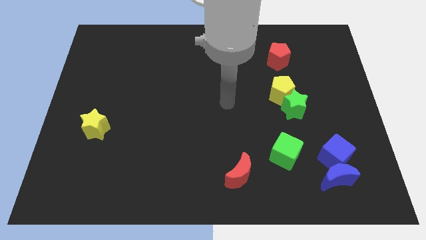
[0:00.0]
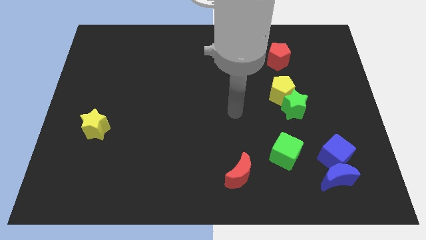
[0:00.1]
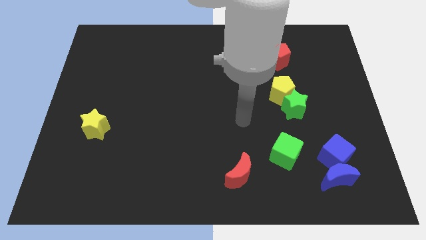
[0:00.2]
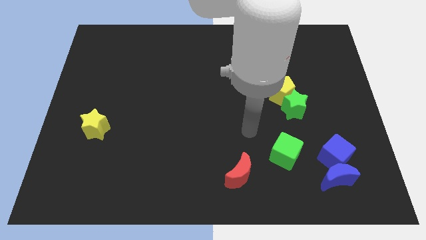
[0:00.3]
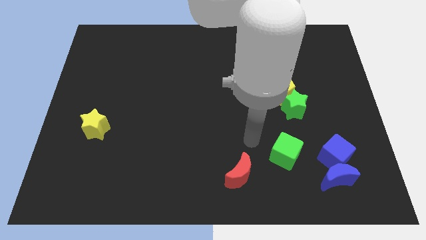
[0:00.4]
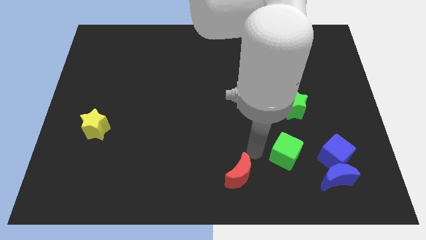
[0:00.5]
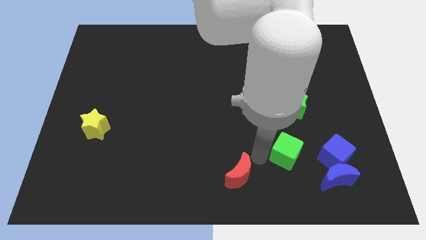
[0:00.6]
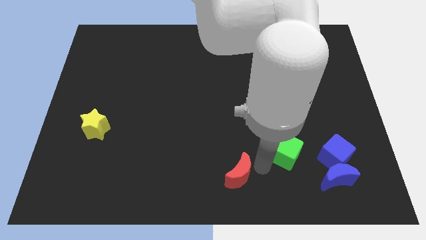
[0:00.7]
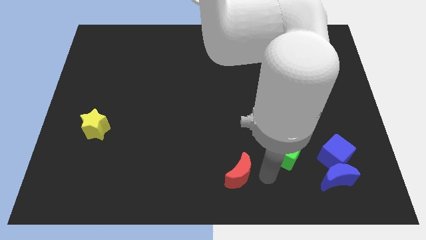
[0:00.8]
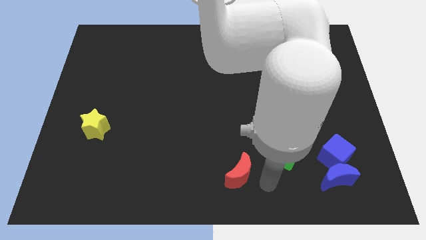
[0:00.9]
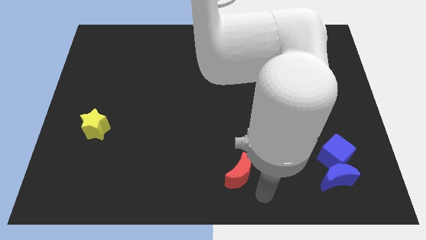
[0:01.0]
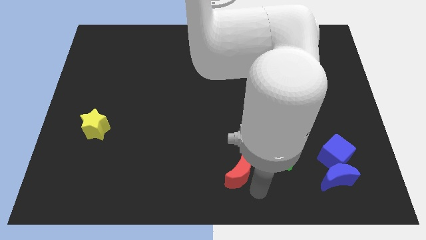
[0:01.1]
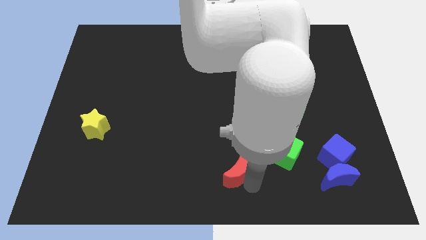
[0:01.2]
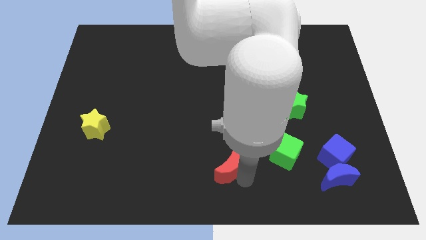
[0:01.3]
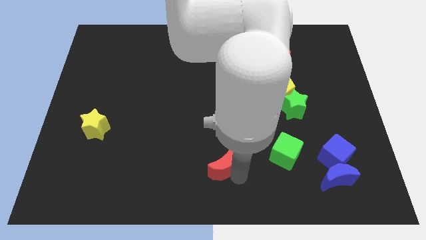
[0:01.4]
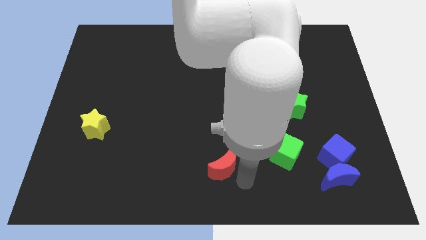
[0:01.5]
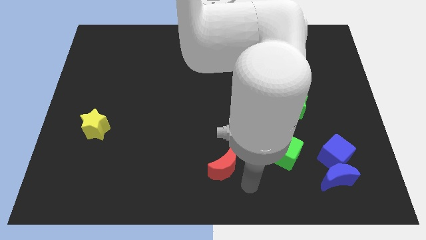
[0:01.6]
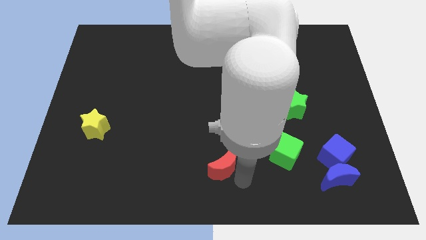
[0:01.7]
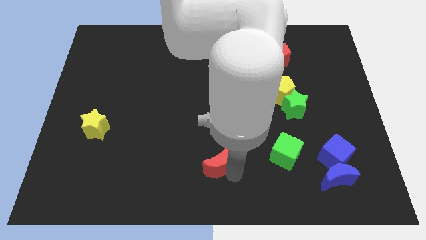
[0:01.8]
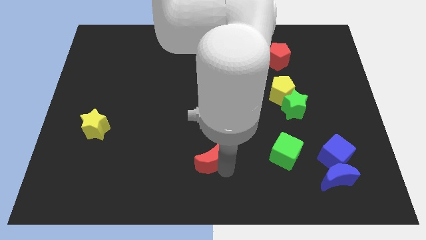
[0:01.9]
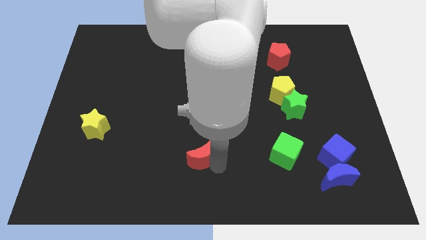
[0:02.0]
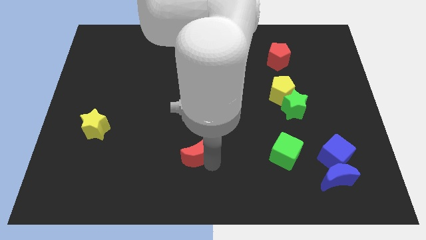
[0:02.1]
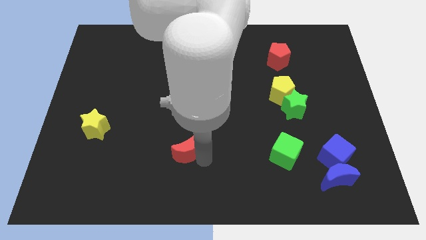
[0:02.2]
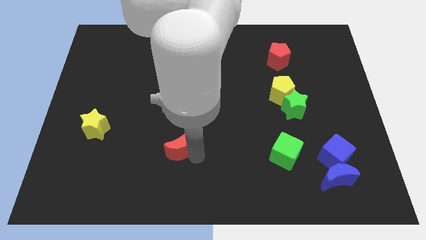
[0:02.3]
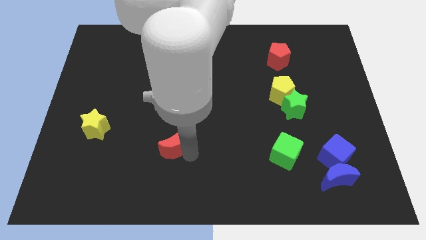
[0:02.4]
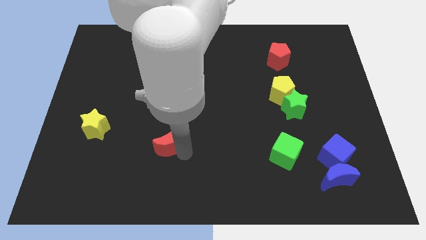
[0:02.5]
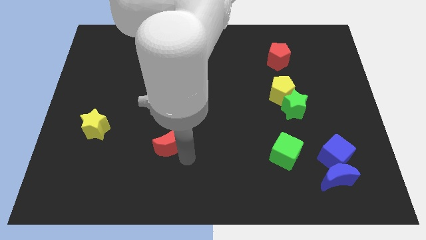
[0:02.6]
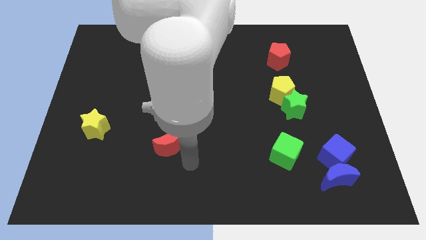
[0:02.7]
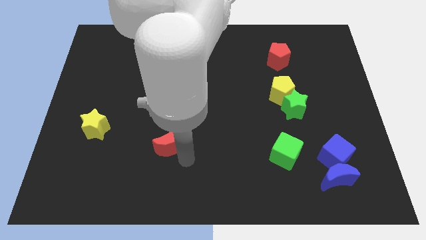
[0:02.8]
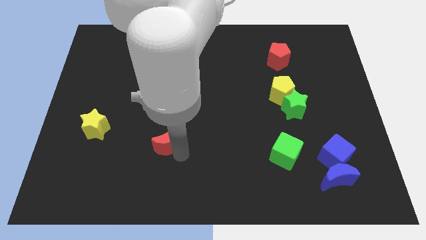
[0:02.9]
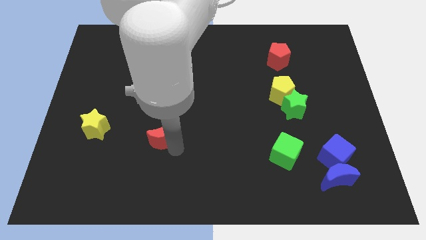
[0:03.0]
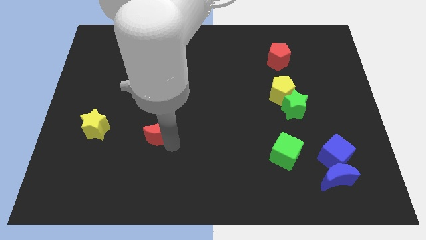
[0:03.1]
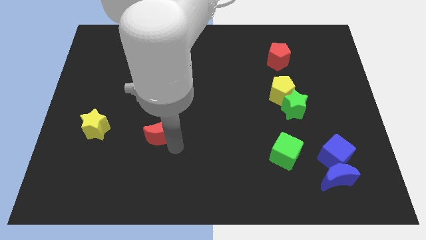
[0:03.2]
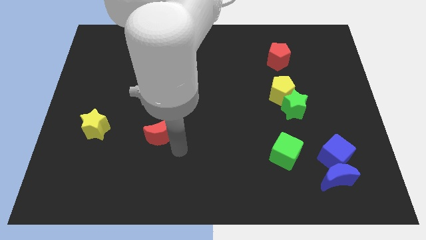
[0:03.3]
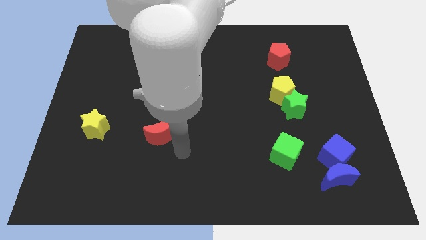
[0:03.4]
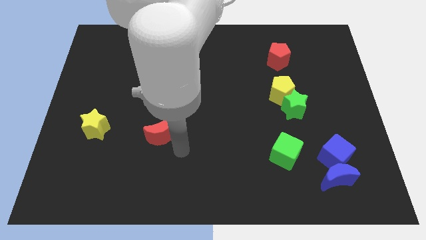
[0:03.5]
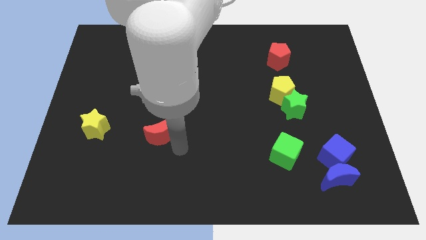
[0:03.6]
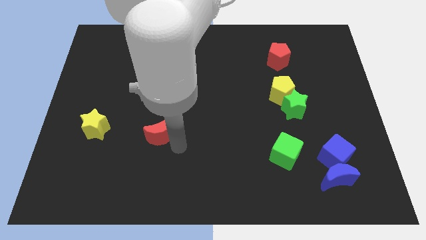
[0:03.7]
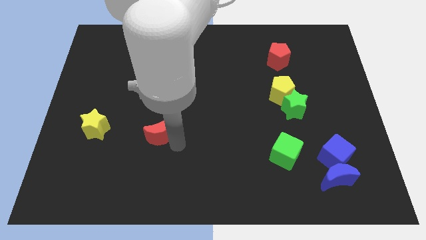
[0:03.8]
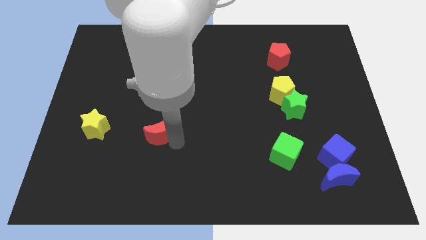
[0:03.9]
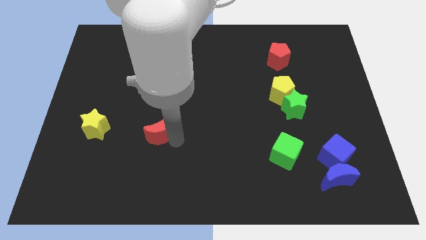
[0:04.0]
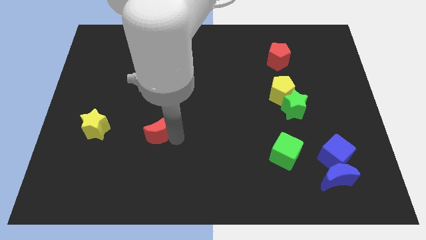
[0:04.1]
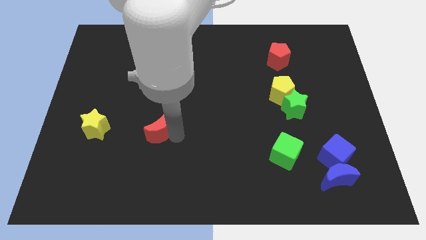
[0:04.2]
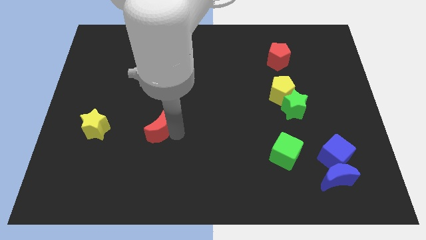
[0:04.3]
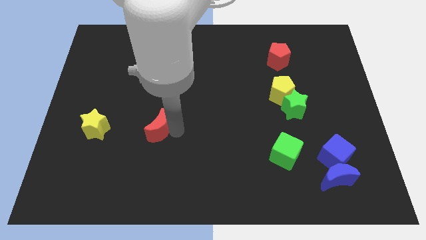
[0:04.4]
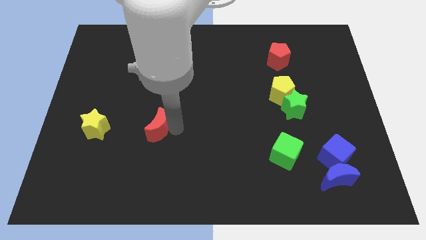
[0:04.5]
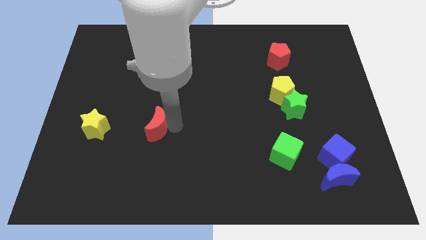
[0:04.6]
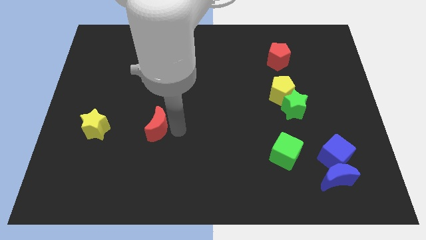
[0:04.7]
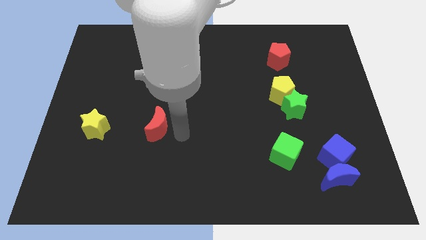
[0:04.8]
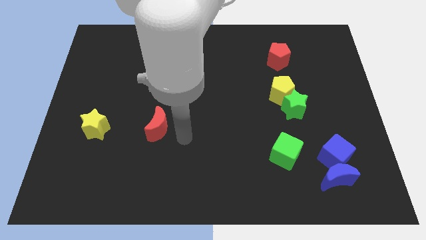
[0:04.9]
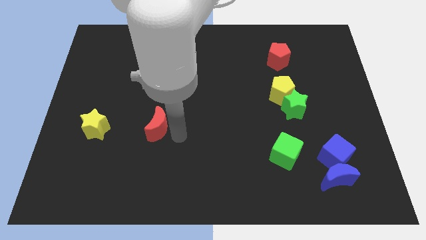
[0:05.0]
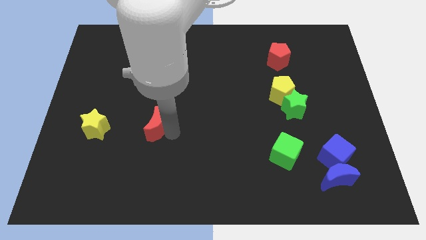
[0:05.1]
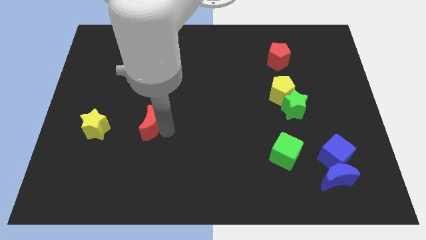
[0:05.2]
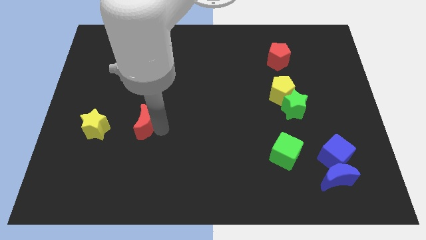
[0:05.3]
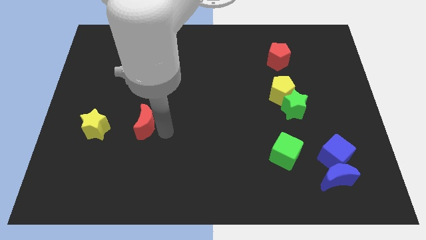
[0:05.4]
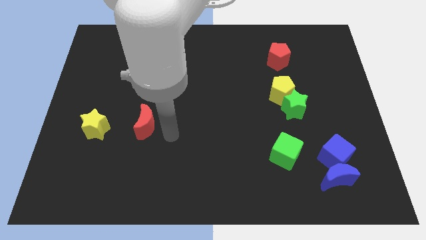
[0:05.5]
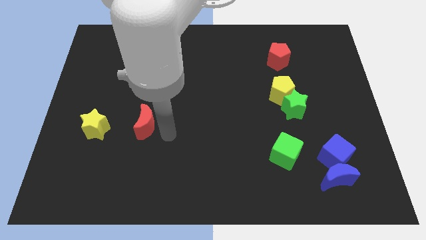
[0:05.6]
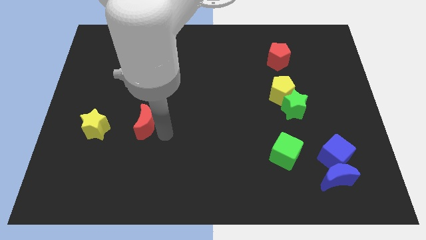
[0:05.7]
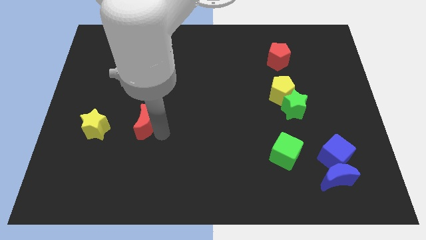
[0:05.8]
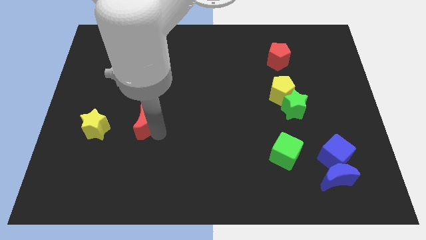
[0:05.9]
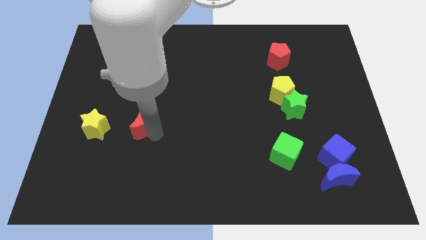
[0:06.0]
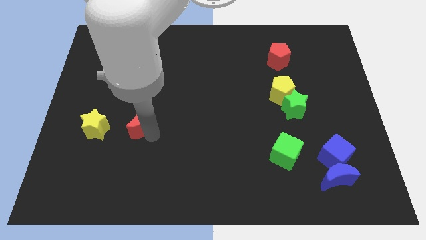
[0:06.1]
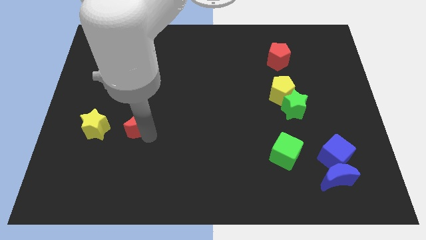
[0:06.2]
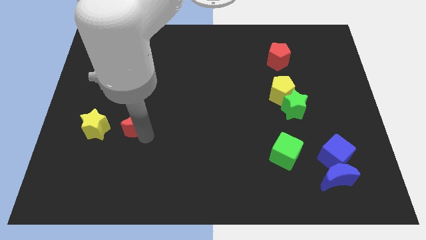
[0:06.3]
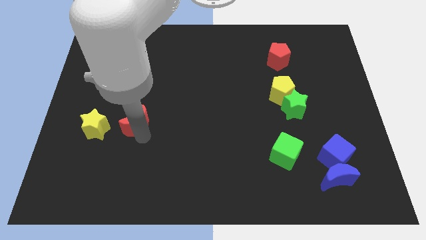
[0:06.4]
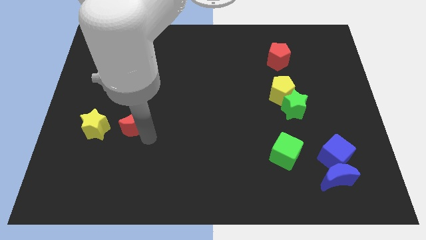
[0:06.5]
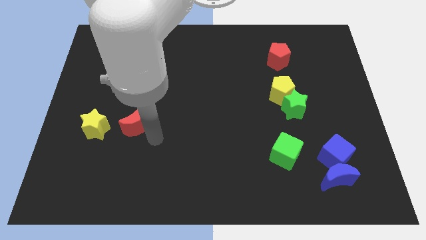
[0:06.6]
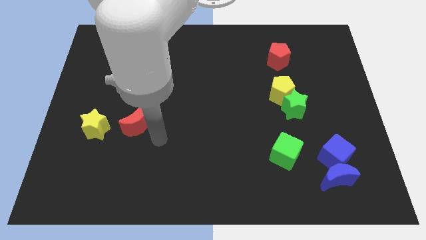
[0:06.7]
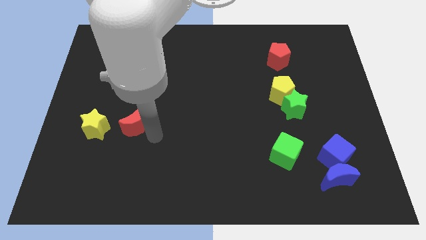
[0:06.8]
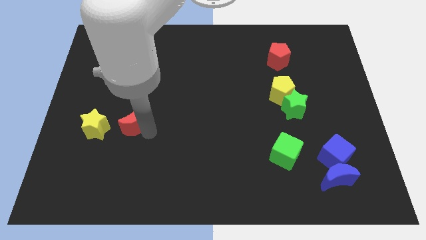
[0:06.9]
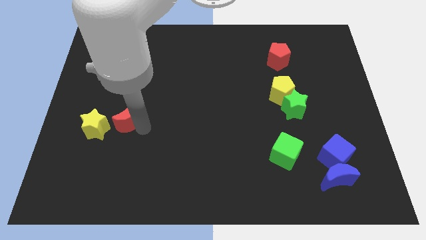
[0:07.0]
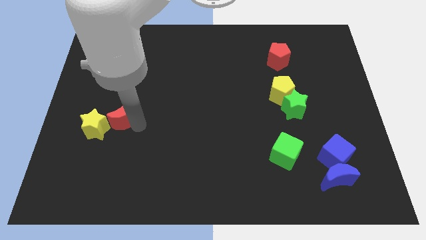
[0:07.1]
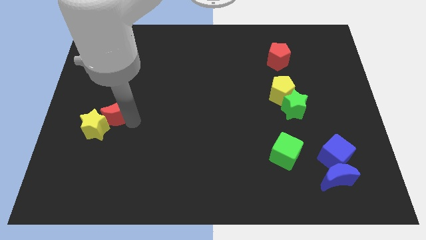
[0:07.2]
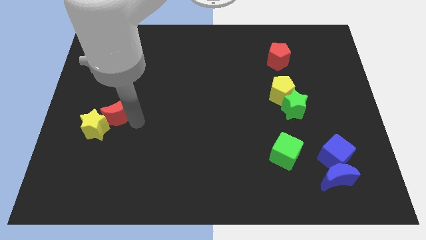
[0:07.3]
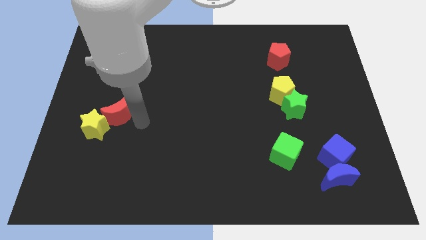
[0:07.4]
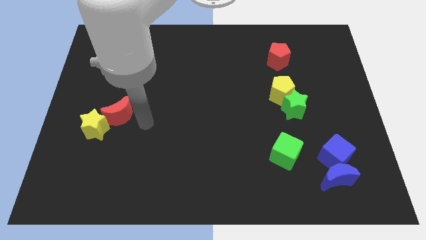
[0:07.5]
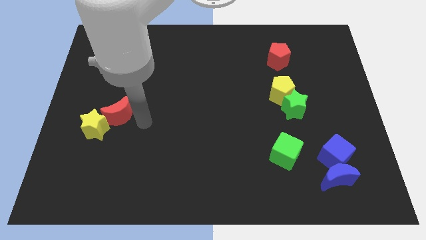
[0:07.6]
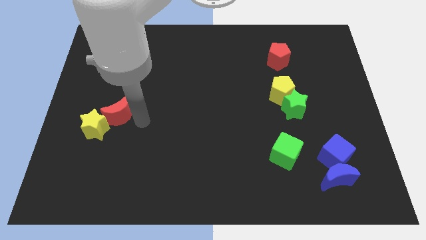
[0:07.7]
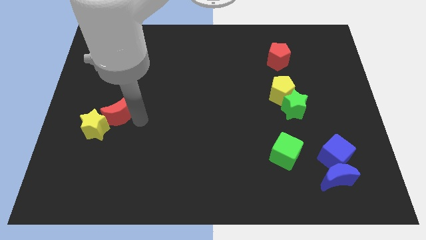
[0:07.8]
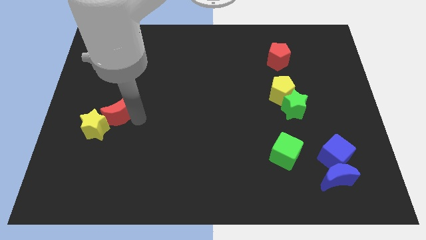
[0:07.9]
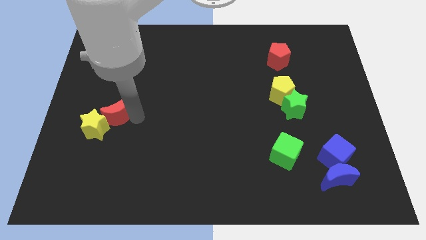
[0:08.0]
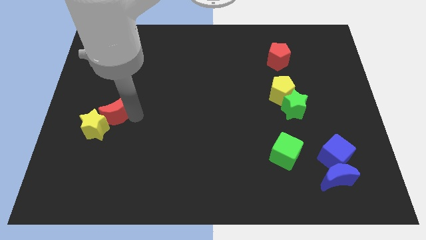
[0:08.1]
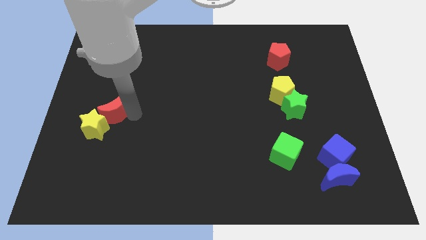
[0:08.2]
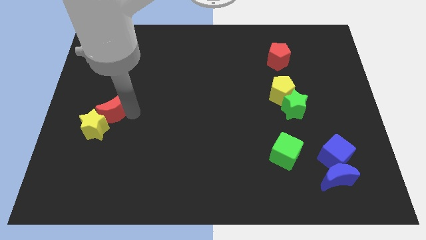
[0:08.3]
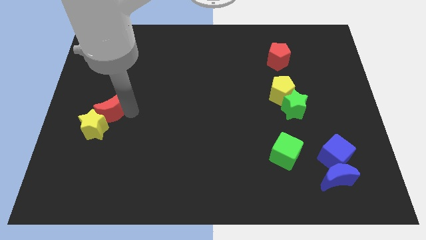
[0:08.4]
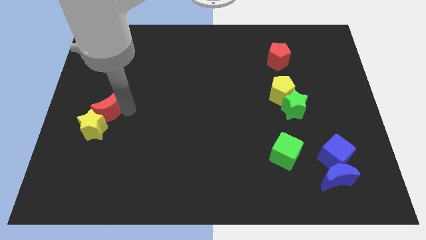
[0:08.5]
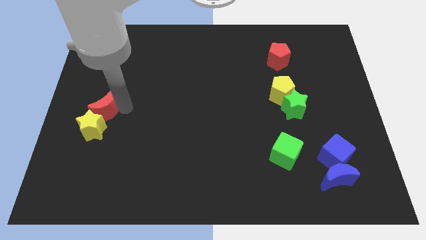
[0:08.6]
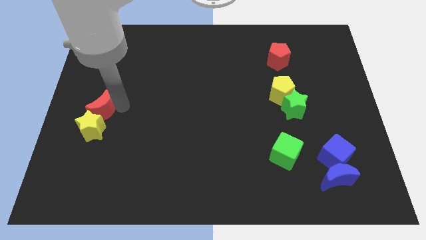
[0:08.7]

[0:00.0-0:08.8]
slide the red moon to the center left
